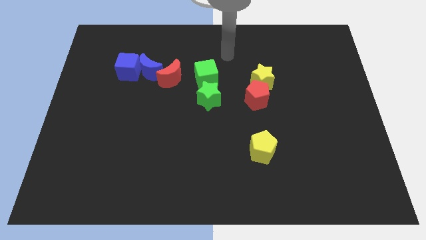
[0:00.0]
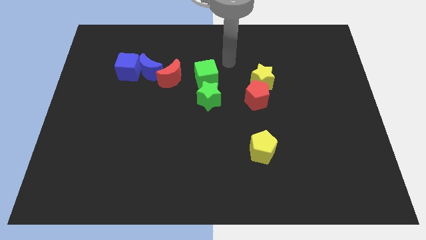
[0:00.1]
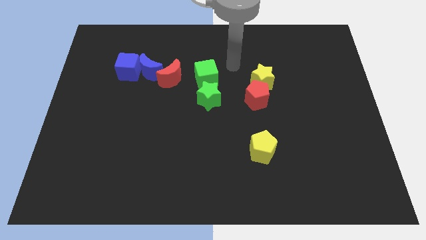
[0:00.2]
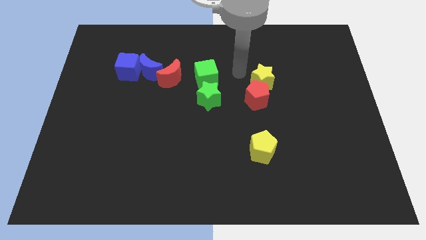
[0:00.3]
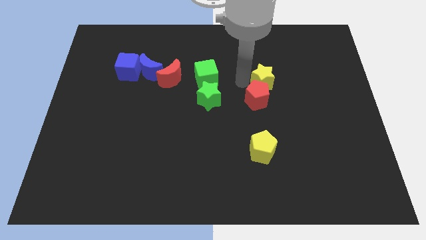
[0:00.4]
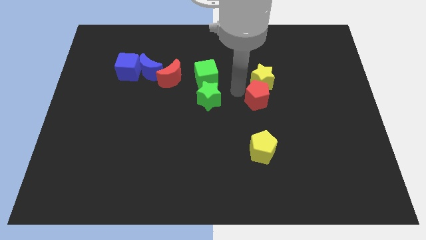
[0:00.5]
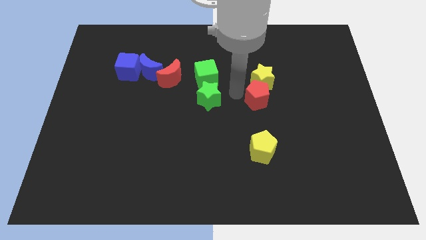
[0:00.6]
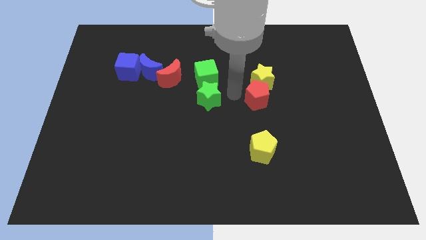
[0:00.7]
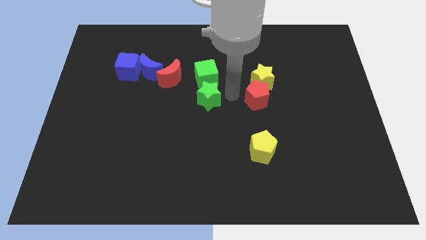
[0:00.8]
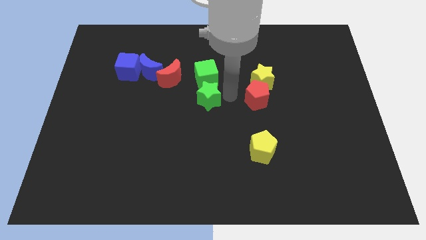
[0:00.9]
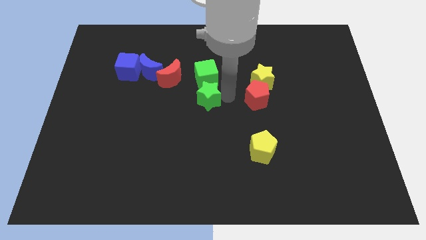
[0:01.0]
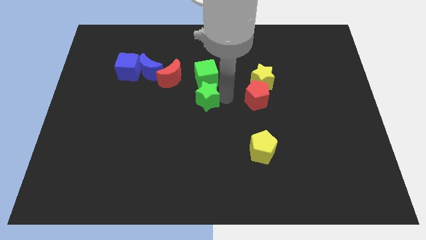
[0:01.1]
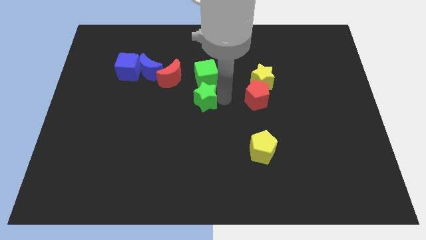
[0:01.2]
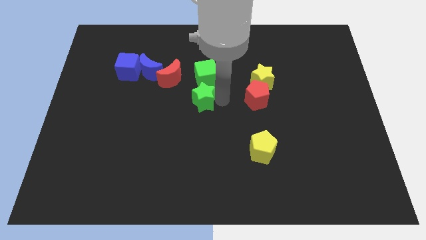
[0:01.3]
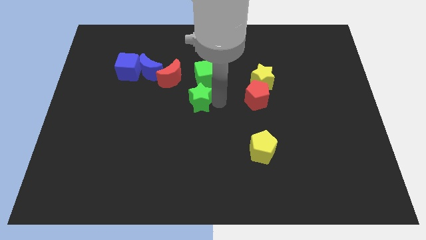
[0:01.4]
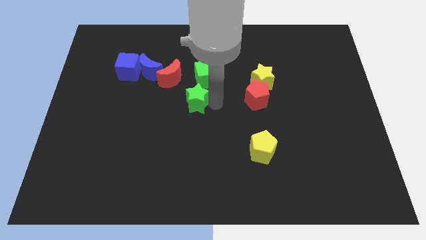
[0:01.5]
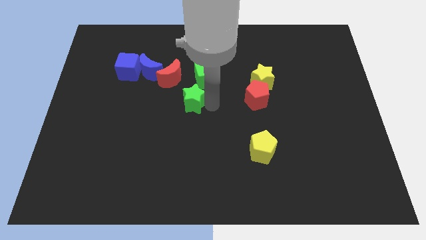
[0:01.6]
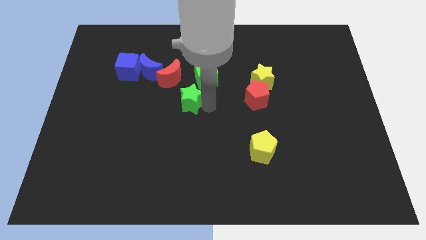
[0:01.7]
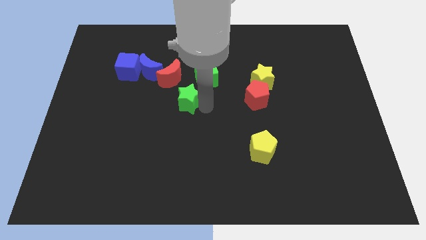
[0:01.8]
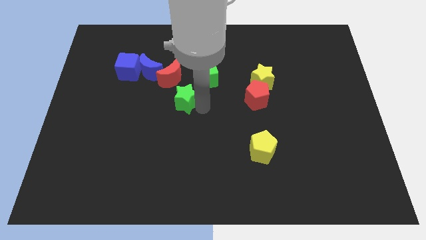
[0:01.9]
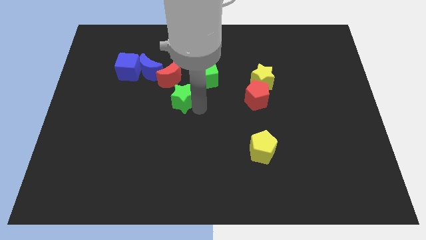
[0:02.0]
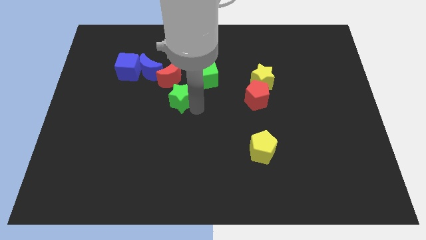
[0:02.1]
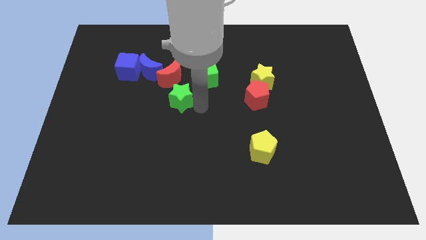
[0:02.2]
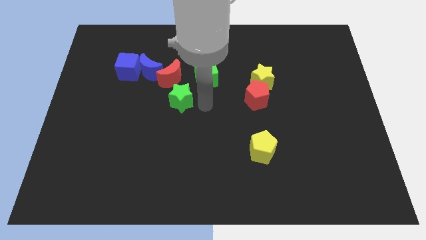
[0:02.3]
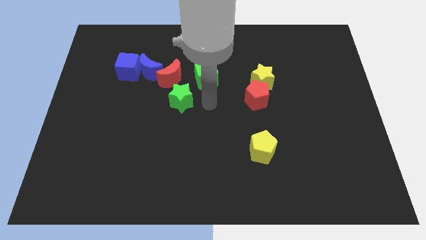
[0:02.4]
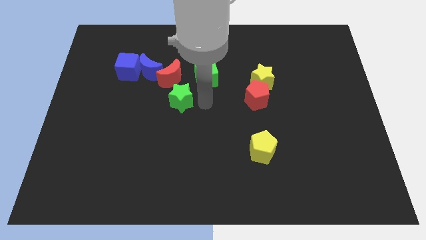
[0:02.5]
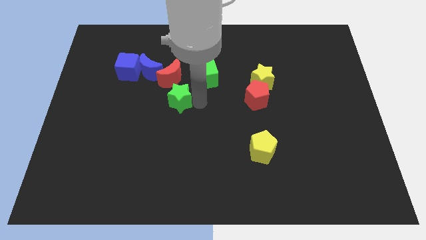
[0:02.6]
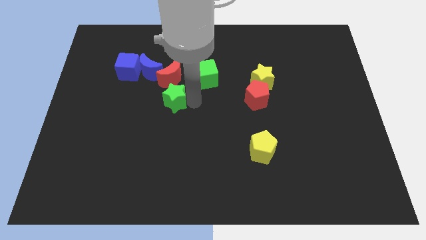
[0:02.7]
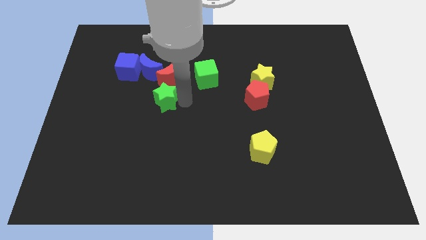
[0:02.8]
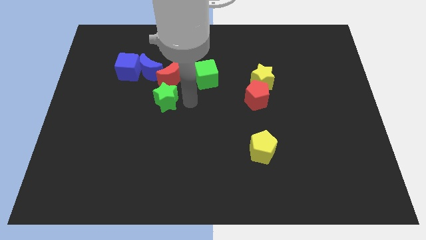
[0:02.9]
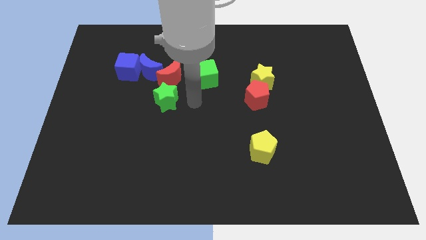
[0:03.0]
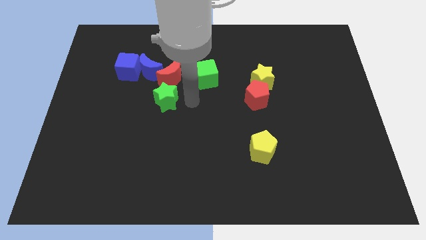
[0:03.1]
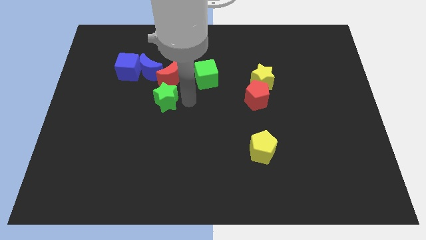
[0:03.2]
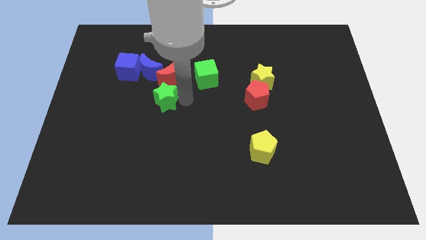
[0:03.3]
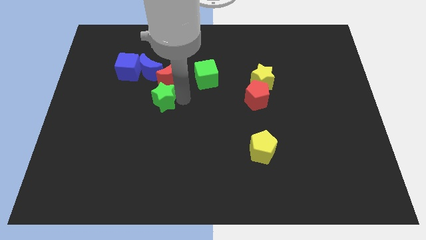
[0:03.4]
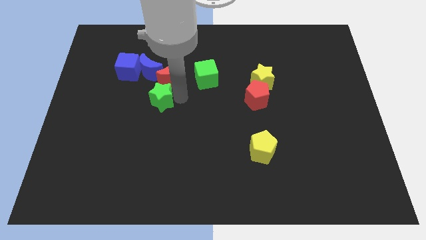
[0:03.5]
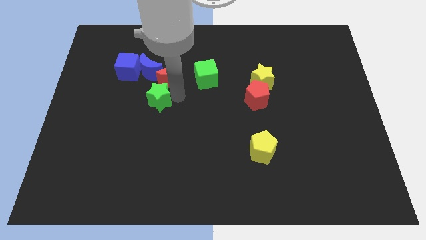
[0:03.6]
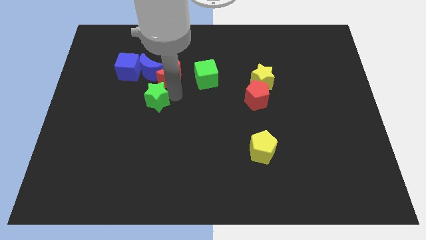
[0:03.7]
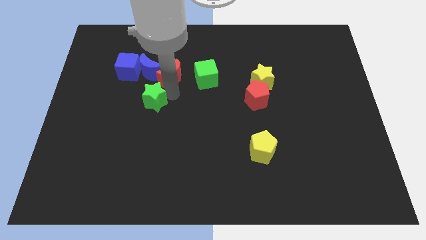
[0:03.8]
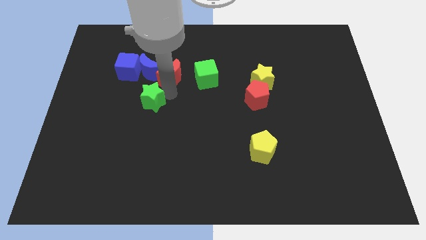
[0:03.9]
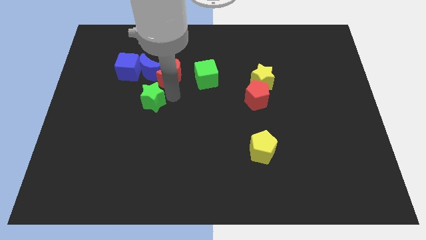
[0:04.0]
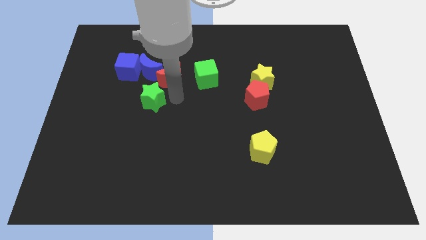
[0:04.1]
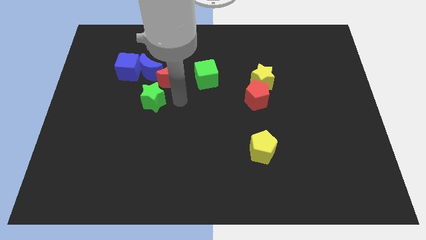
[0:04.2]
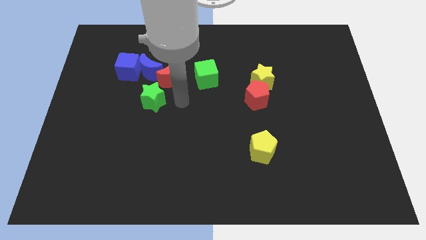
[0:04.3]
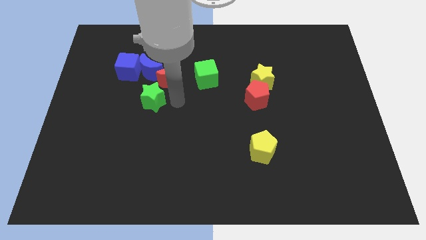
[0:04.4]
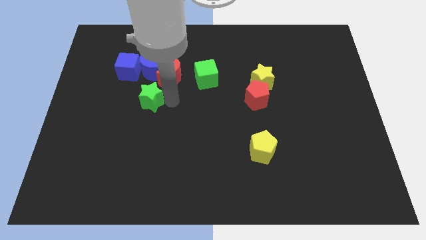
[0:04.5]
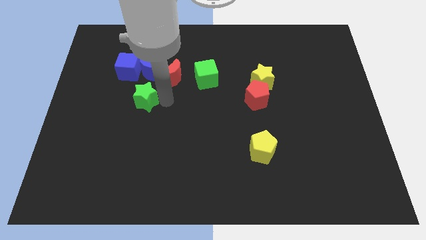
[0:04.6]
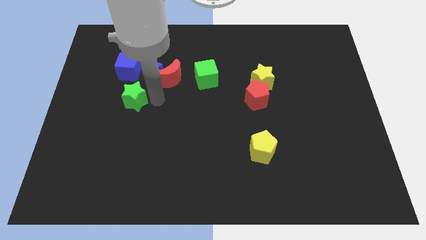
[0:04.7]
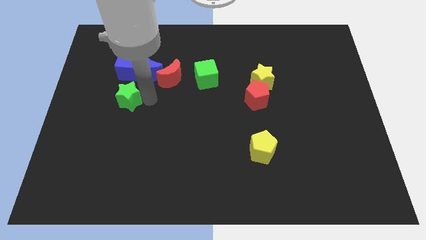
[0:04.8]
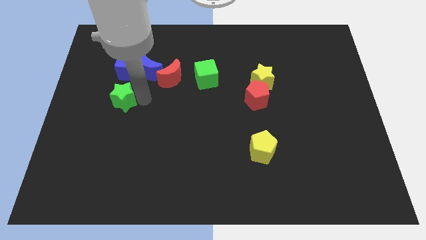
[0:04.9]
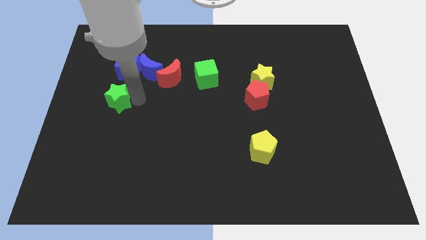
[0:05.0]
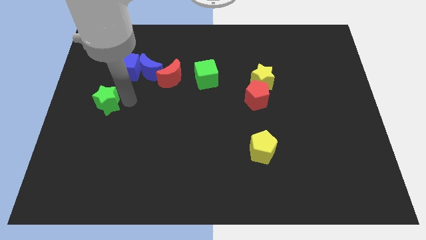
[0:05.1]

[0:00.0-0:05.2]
move the green star to the center left

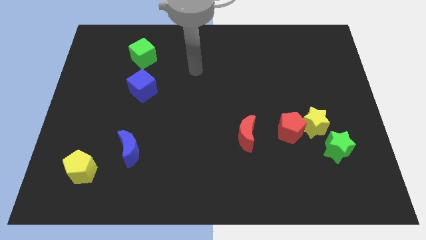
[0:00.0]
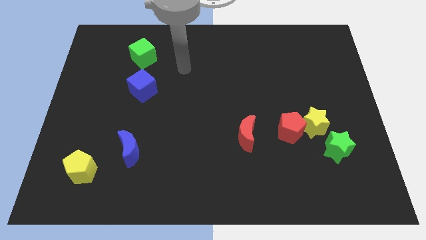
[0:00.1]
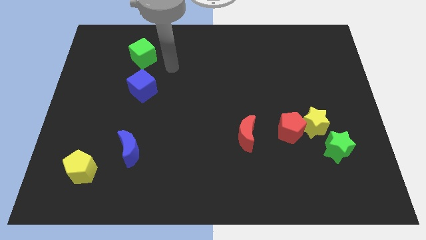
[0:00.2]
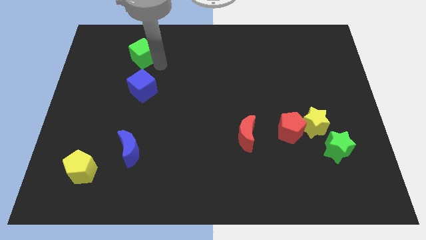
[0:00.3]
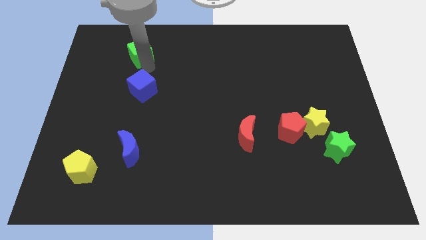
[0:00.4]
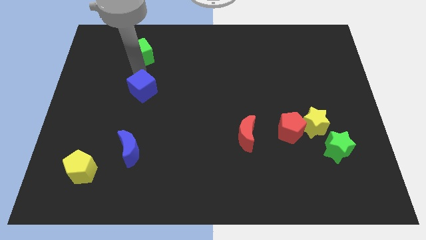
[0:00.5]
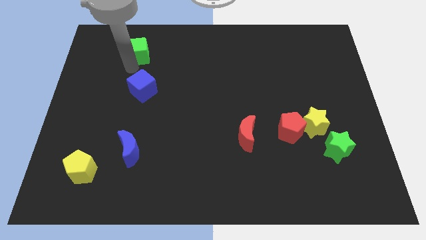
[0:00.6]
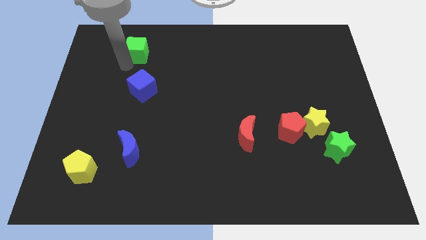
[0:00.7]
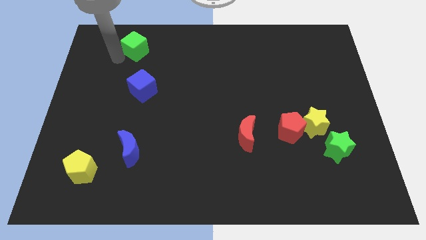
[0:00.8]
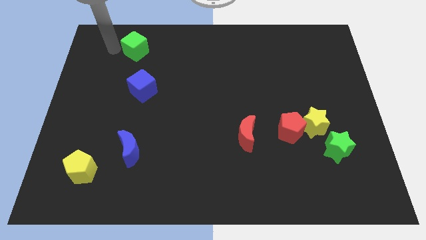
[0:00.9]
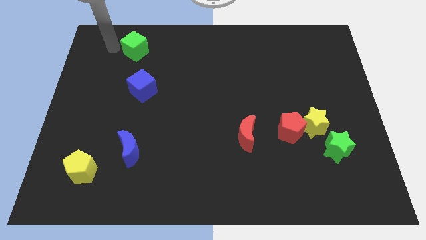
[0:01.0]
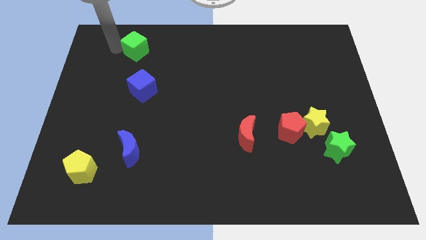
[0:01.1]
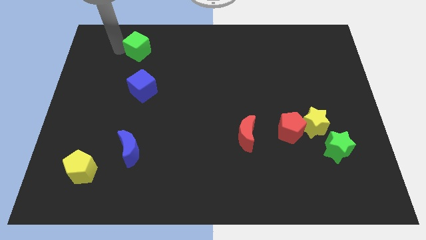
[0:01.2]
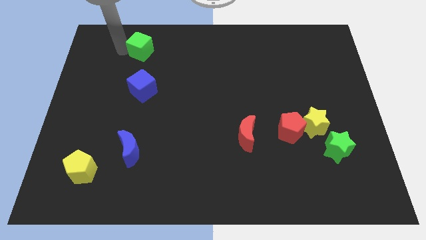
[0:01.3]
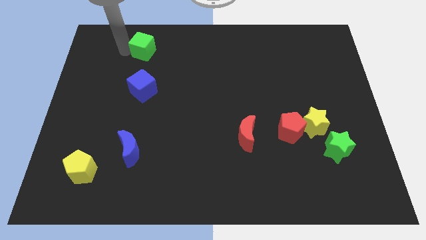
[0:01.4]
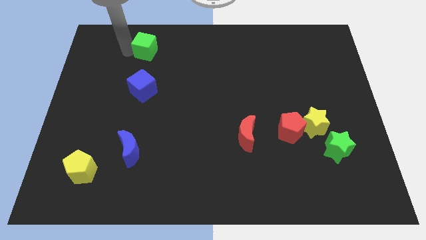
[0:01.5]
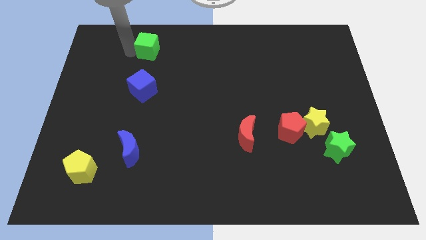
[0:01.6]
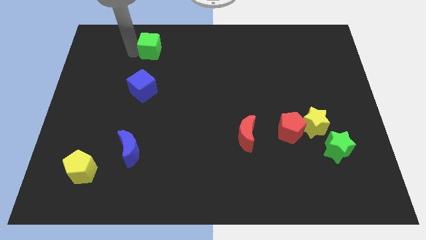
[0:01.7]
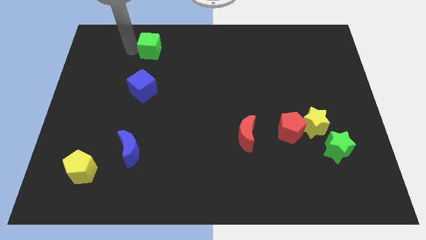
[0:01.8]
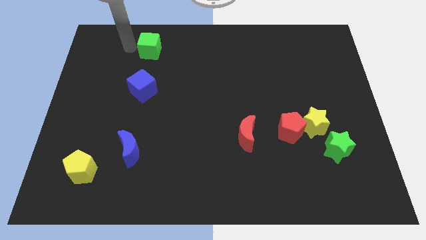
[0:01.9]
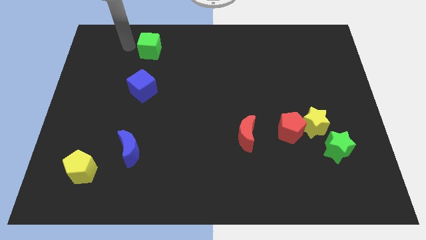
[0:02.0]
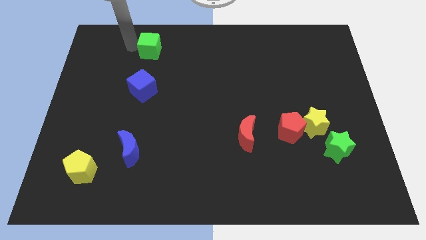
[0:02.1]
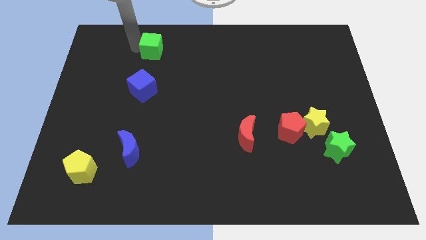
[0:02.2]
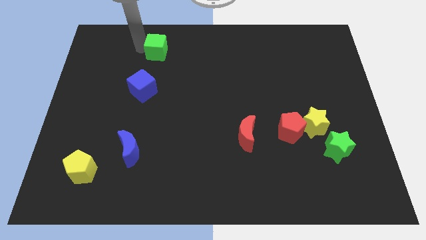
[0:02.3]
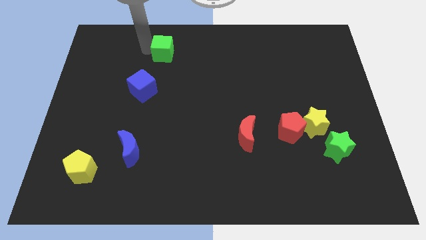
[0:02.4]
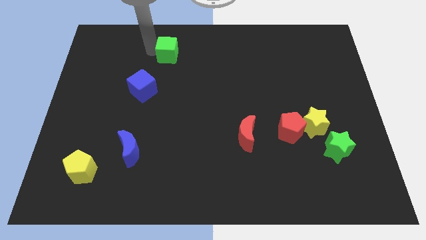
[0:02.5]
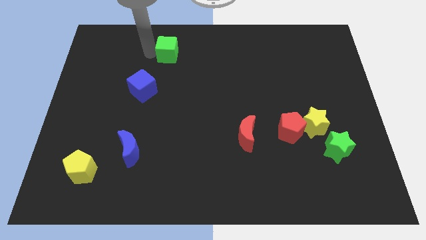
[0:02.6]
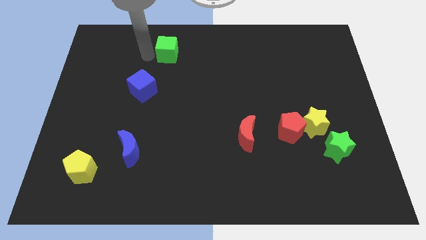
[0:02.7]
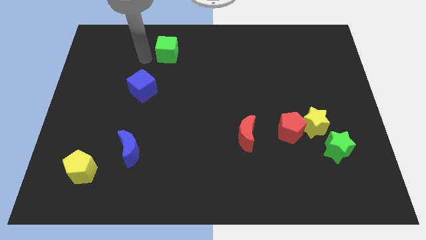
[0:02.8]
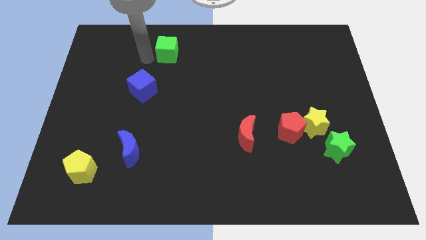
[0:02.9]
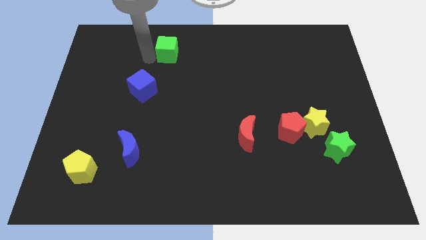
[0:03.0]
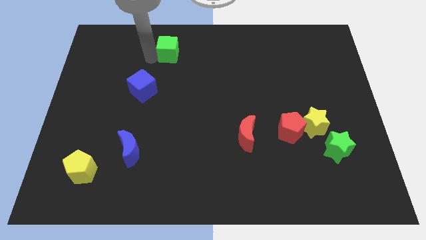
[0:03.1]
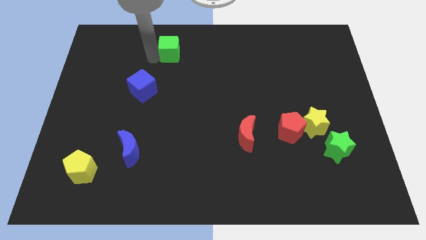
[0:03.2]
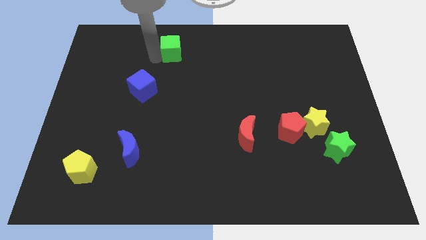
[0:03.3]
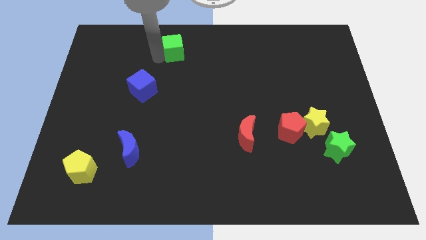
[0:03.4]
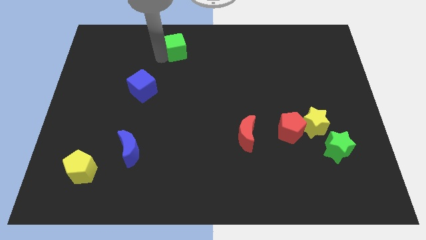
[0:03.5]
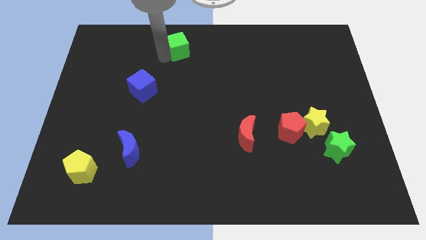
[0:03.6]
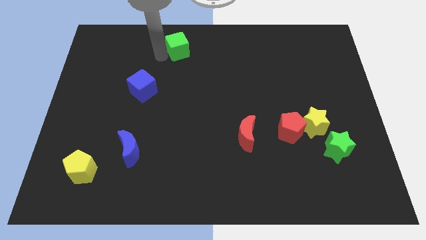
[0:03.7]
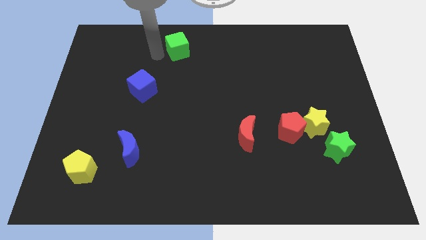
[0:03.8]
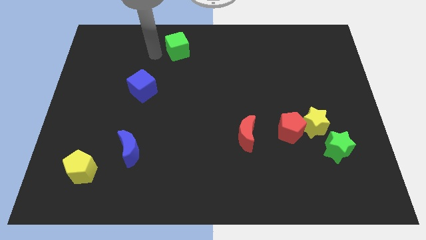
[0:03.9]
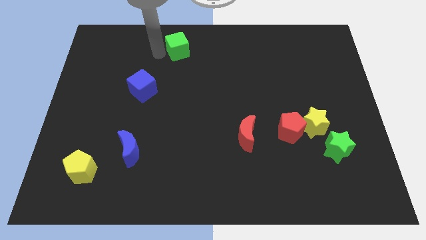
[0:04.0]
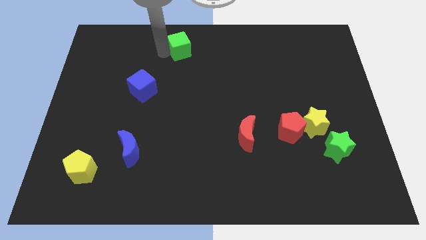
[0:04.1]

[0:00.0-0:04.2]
put the green cube to the towards your base
